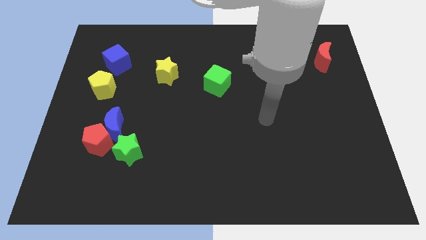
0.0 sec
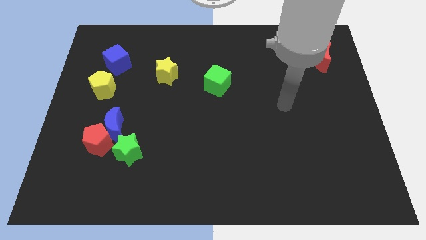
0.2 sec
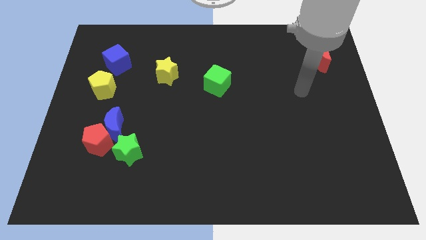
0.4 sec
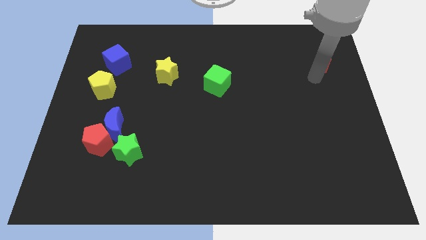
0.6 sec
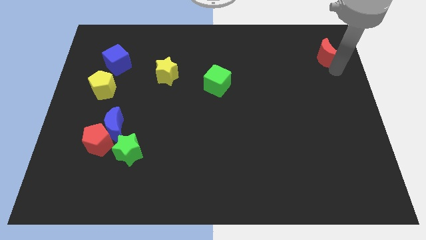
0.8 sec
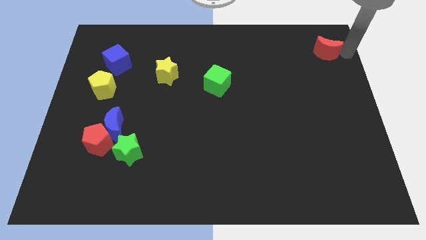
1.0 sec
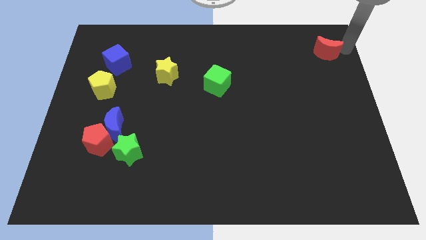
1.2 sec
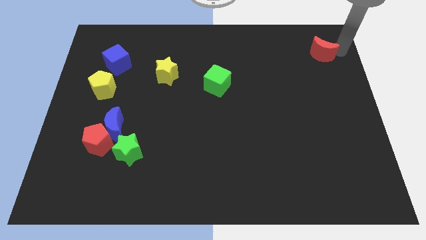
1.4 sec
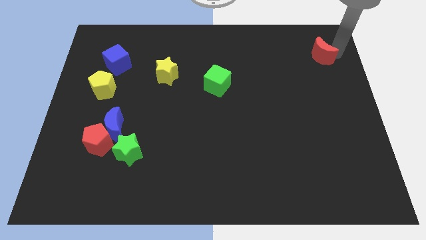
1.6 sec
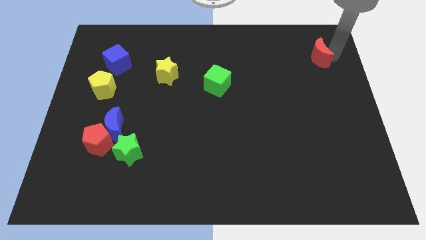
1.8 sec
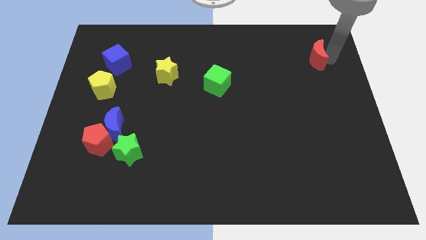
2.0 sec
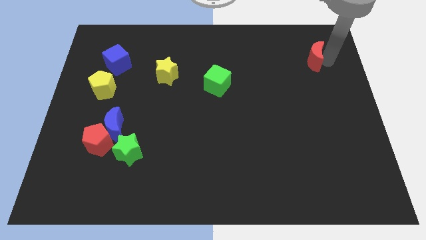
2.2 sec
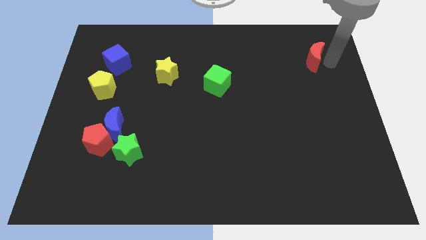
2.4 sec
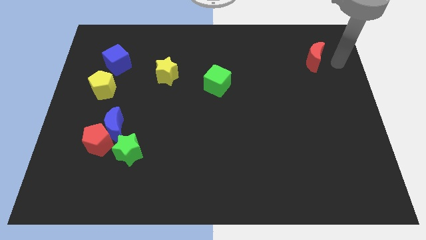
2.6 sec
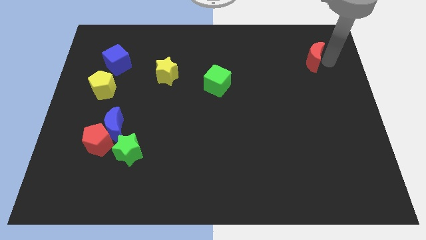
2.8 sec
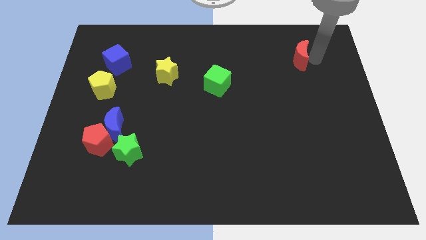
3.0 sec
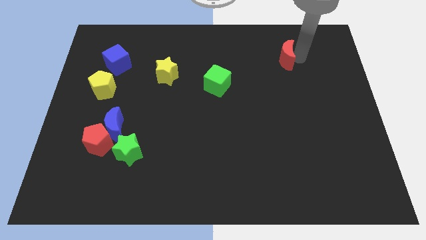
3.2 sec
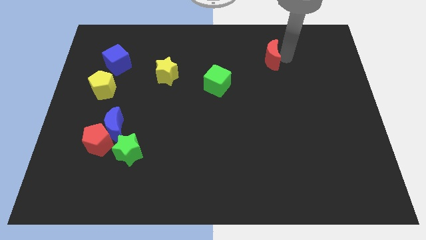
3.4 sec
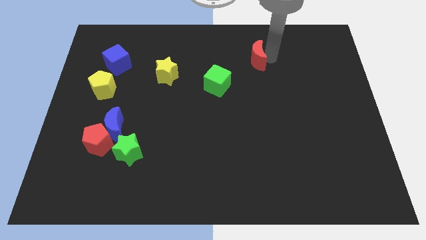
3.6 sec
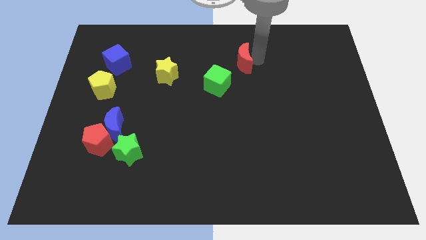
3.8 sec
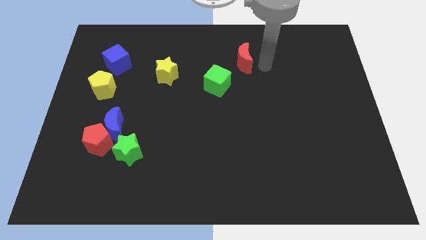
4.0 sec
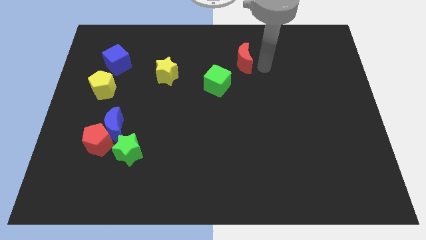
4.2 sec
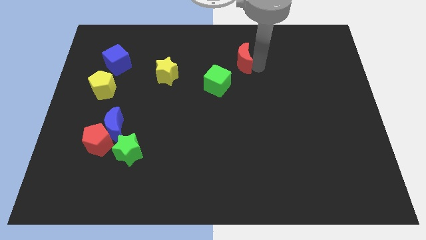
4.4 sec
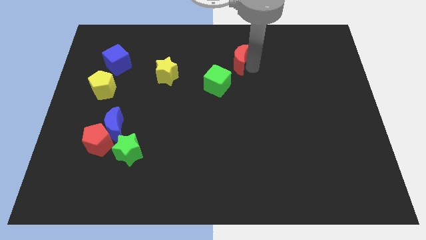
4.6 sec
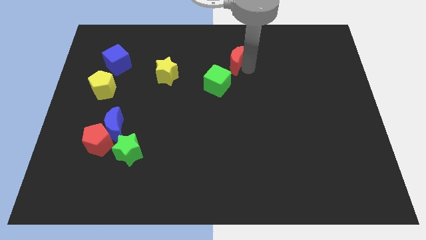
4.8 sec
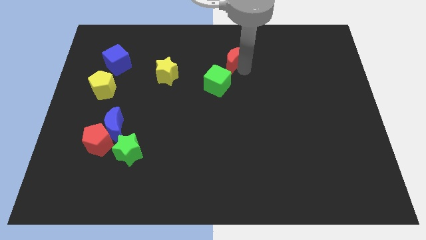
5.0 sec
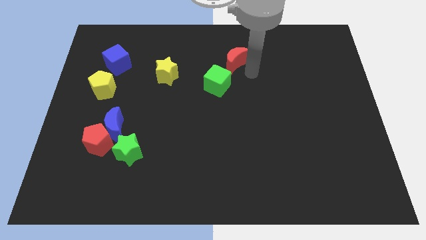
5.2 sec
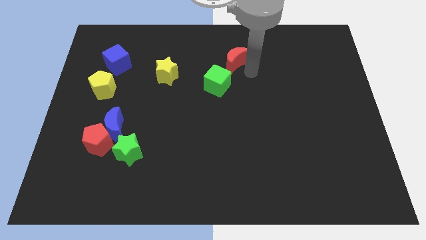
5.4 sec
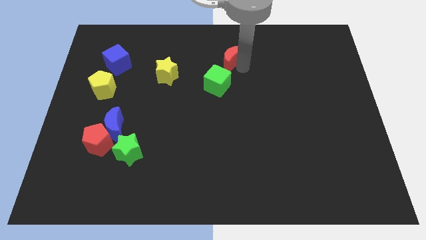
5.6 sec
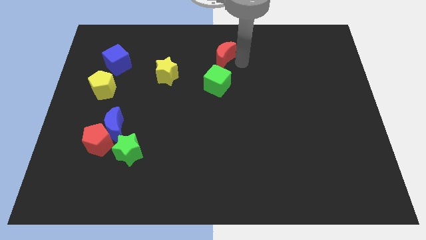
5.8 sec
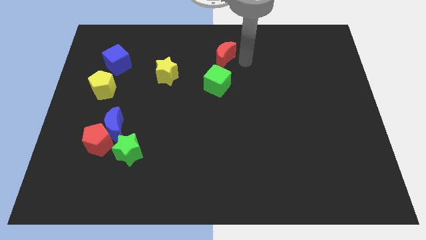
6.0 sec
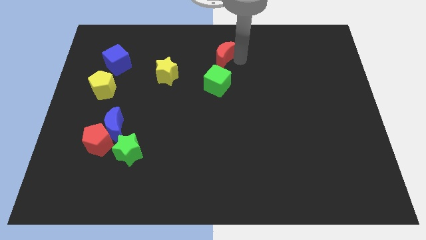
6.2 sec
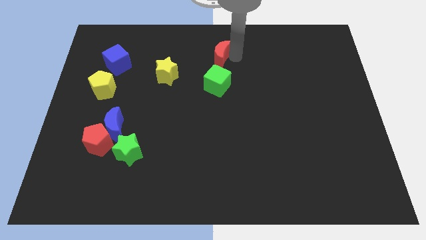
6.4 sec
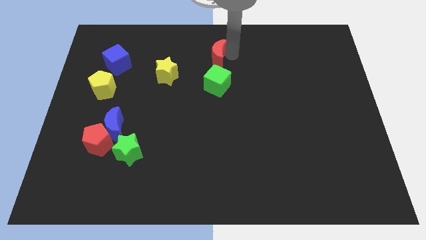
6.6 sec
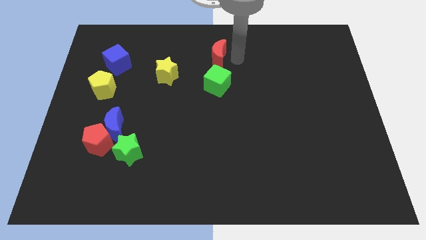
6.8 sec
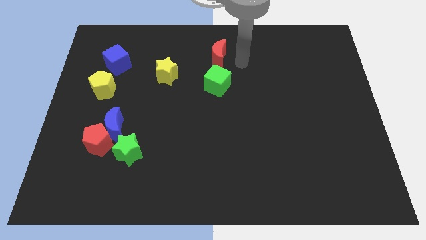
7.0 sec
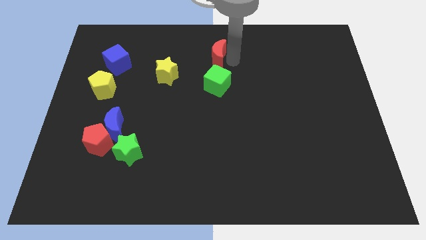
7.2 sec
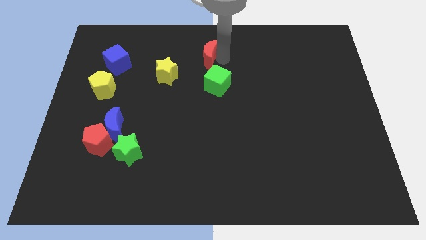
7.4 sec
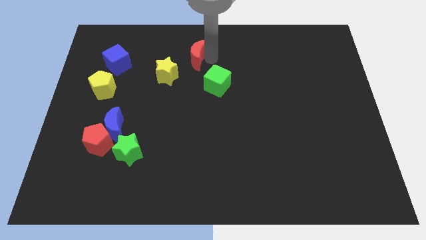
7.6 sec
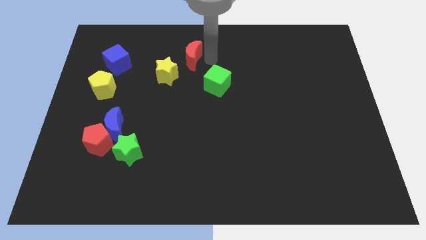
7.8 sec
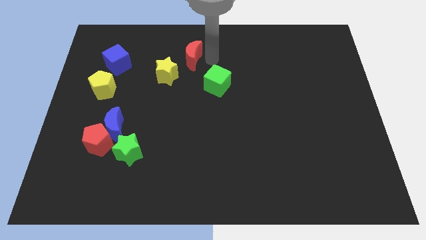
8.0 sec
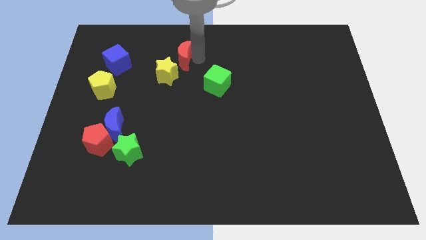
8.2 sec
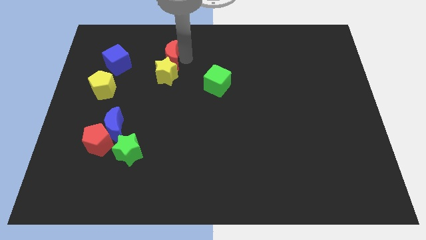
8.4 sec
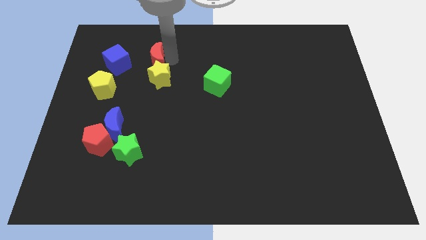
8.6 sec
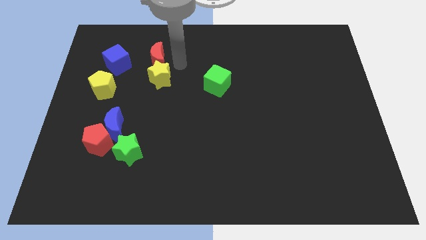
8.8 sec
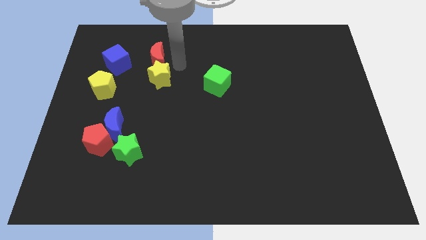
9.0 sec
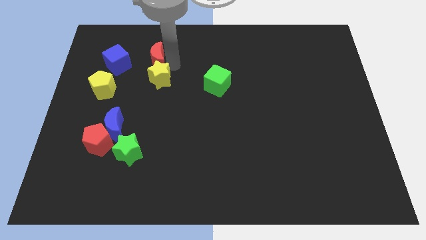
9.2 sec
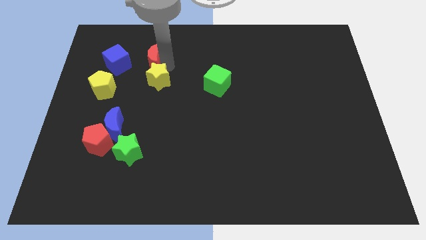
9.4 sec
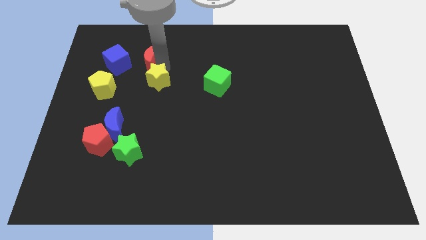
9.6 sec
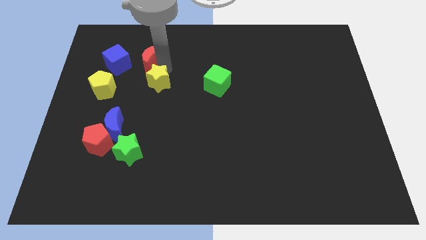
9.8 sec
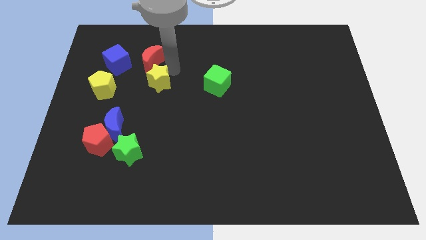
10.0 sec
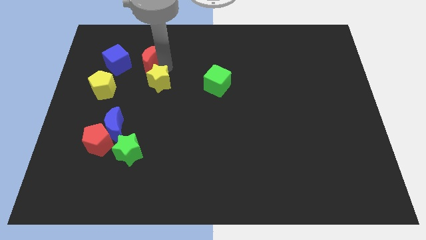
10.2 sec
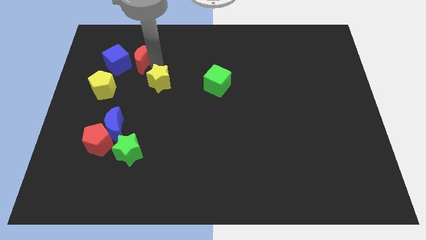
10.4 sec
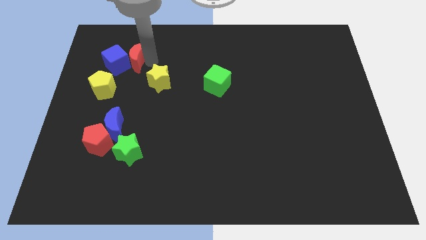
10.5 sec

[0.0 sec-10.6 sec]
slide the red moon to the blue cube
